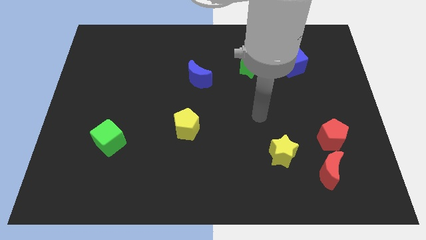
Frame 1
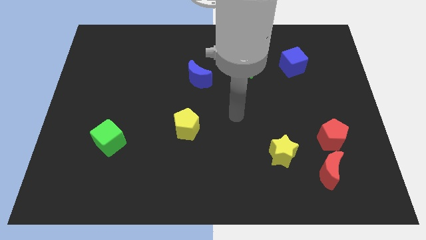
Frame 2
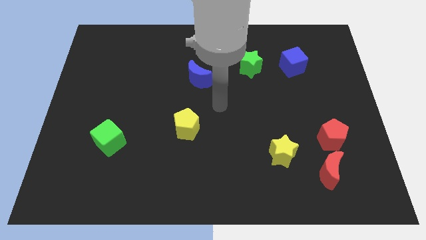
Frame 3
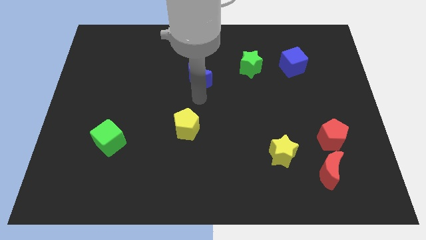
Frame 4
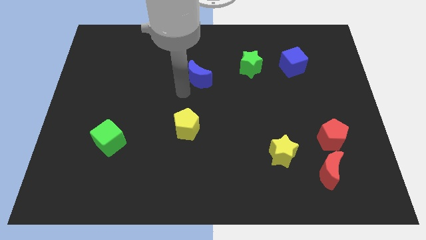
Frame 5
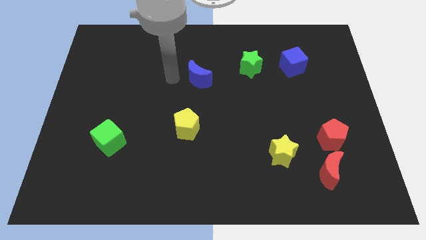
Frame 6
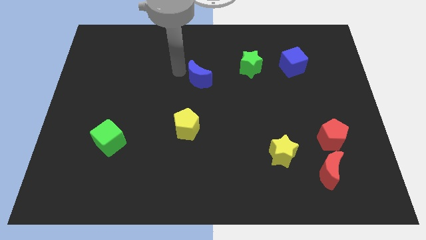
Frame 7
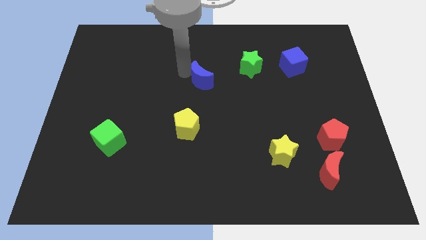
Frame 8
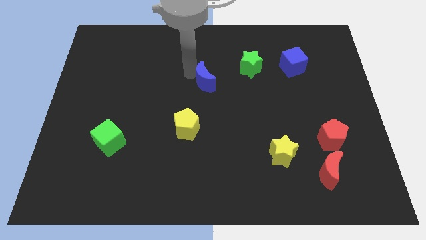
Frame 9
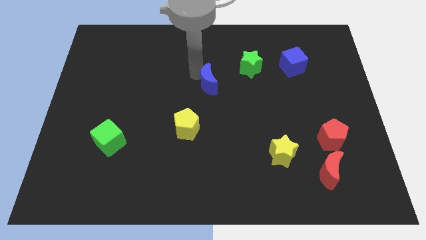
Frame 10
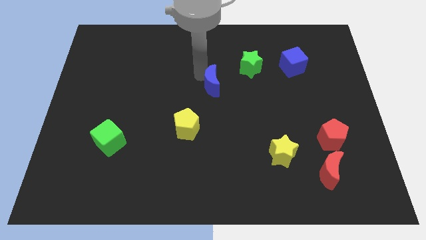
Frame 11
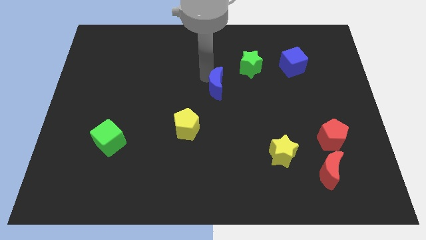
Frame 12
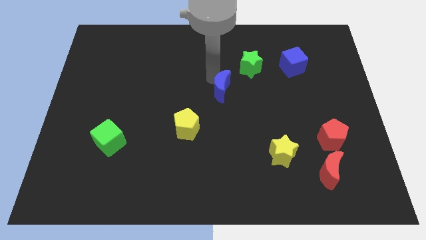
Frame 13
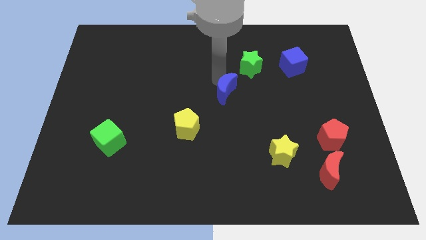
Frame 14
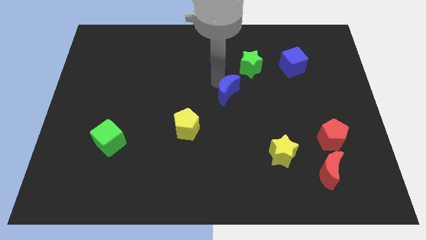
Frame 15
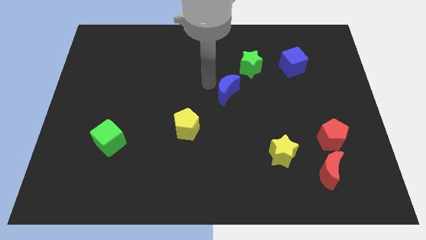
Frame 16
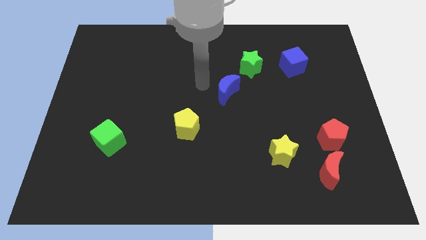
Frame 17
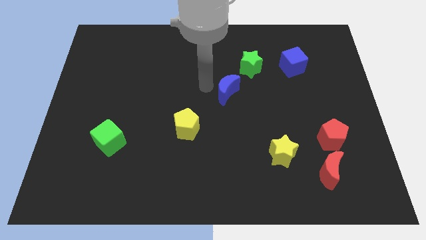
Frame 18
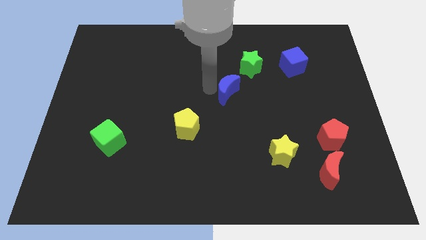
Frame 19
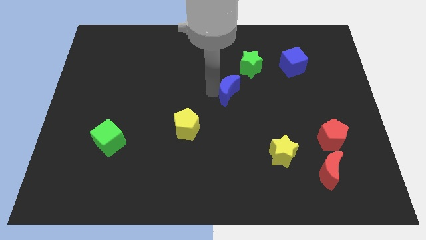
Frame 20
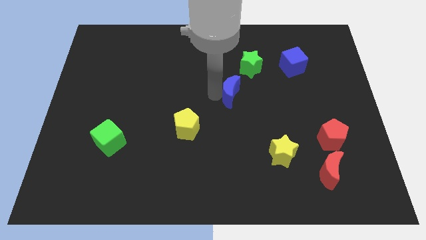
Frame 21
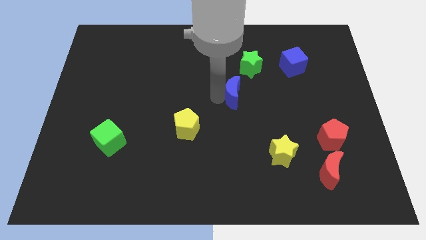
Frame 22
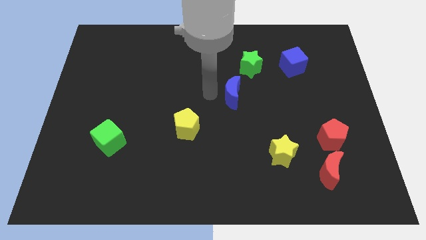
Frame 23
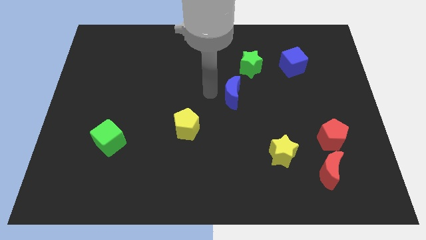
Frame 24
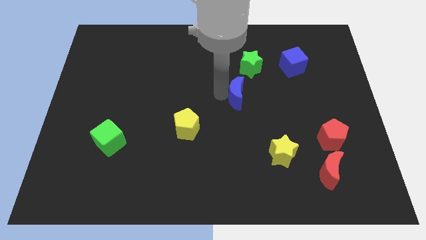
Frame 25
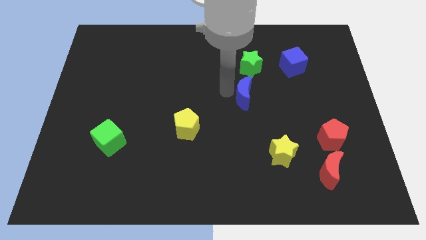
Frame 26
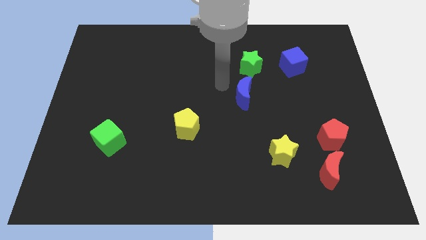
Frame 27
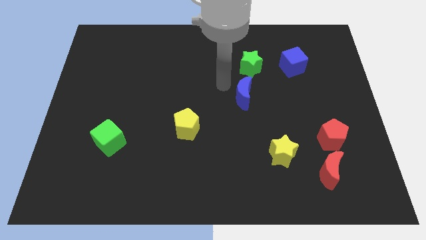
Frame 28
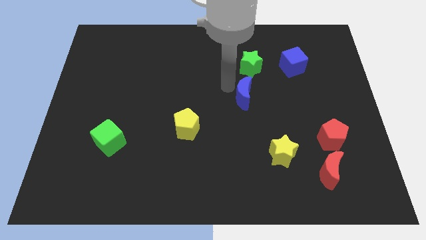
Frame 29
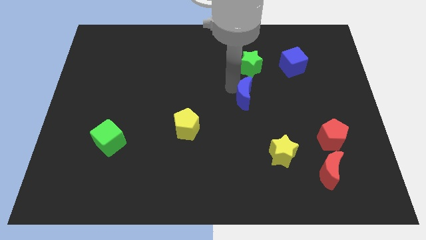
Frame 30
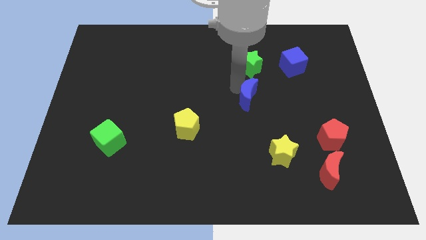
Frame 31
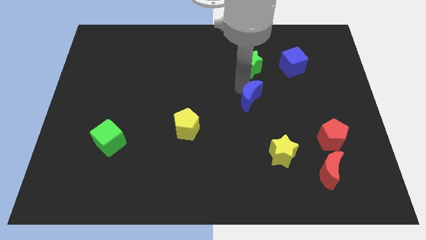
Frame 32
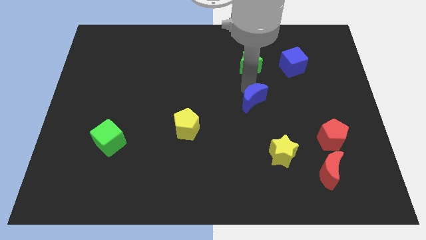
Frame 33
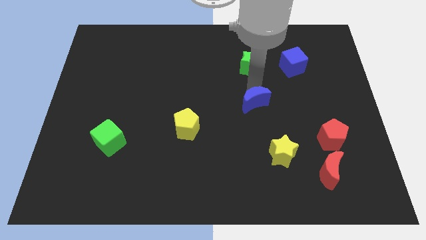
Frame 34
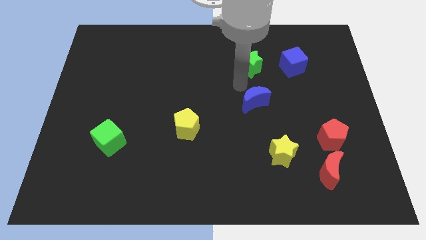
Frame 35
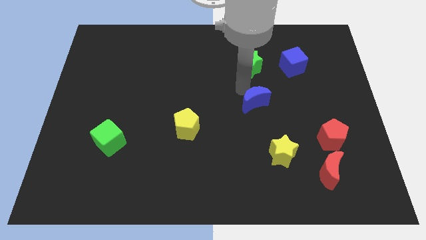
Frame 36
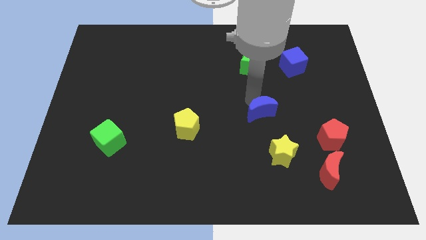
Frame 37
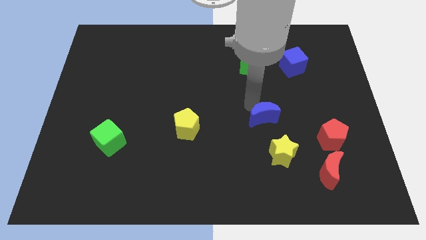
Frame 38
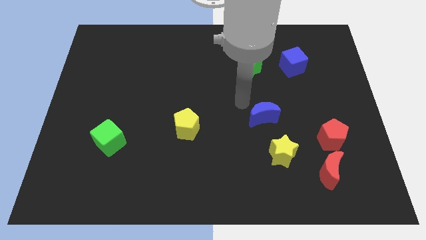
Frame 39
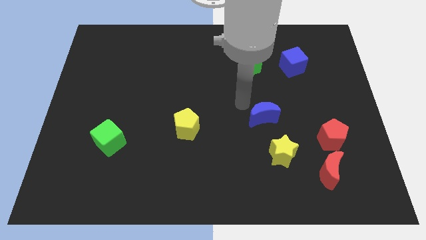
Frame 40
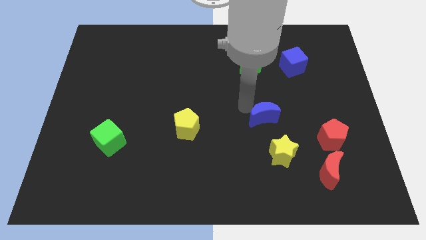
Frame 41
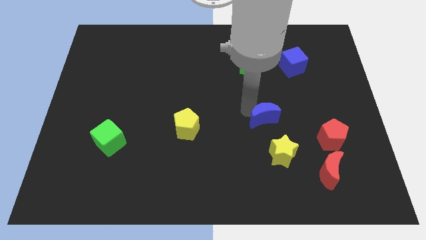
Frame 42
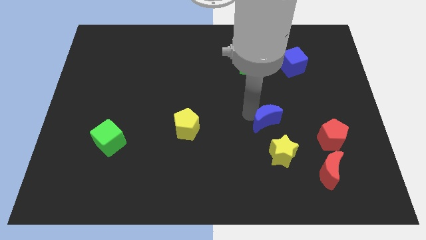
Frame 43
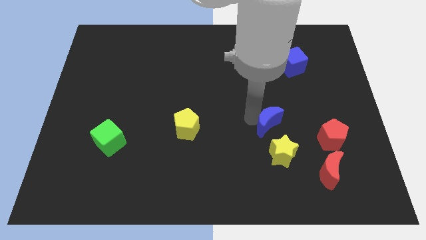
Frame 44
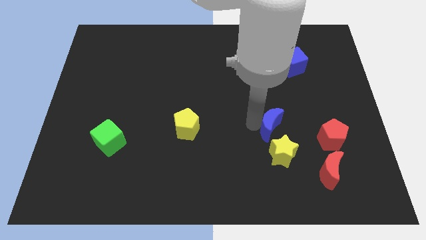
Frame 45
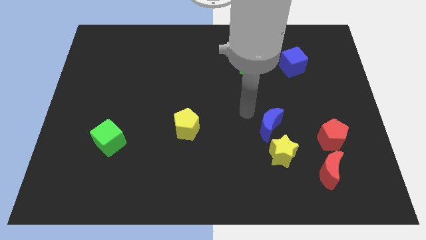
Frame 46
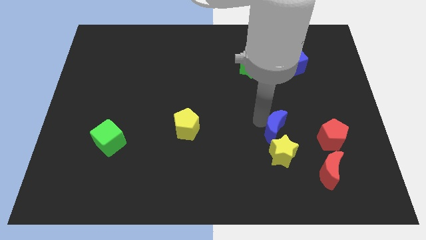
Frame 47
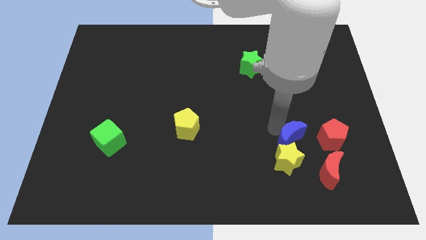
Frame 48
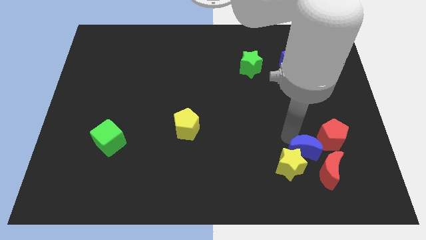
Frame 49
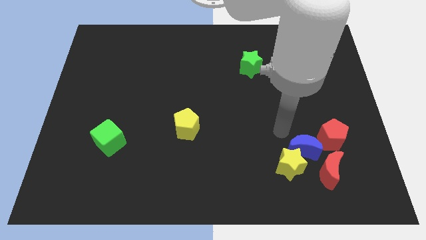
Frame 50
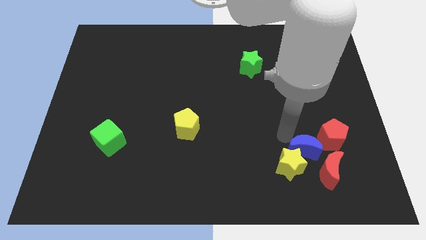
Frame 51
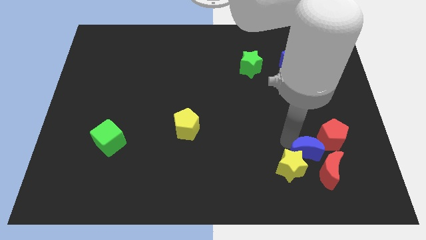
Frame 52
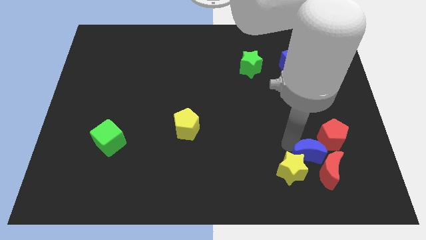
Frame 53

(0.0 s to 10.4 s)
move the blue moon next to the red moon

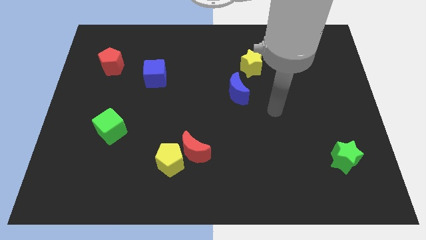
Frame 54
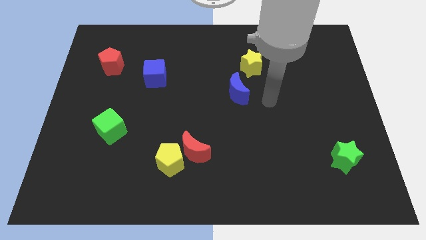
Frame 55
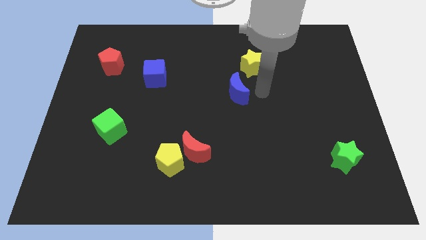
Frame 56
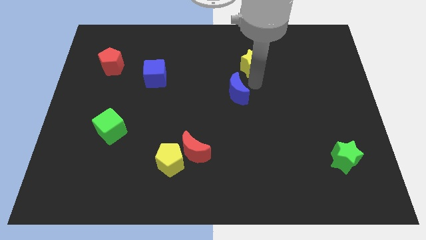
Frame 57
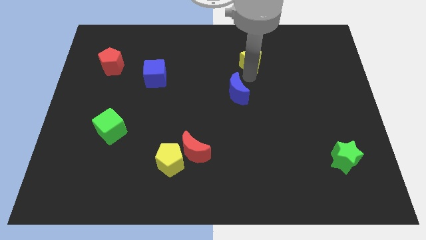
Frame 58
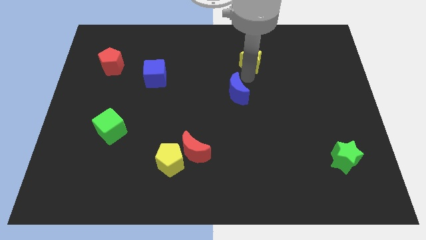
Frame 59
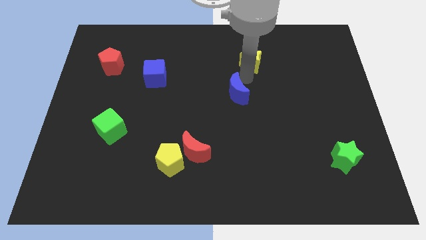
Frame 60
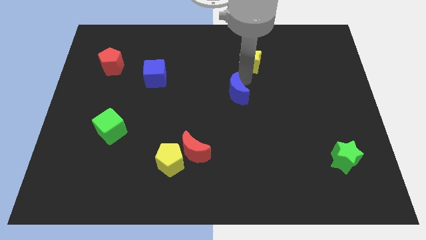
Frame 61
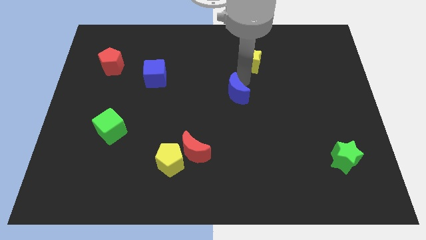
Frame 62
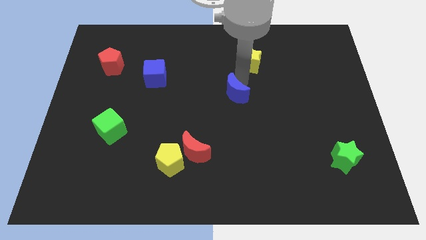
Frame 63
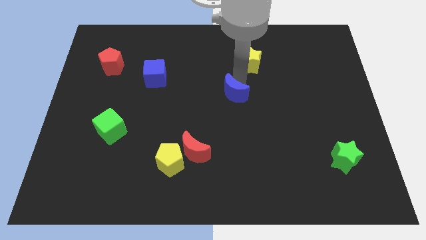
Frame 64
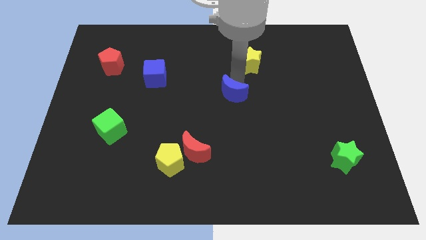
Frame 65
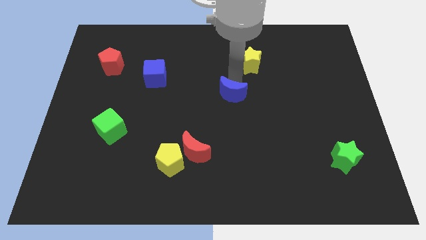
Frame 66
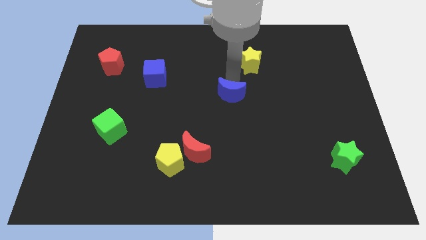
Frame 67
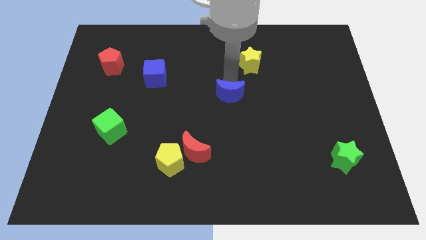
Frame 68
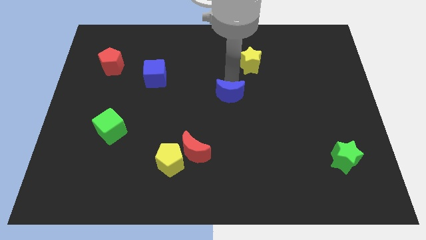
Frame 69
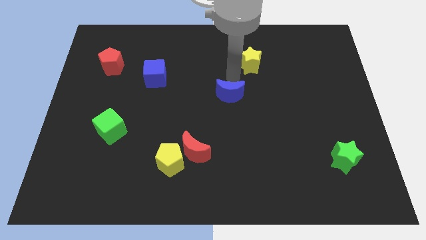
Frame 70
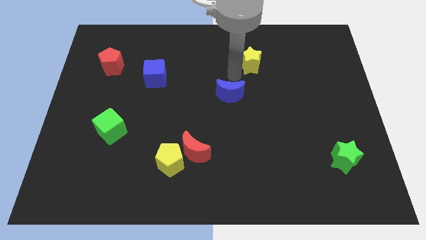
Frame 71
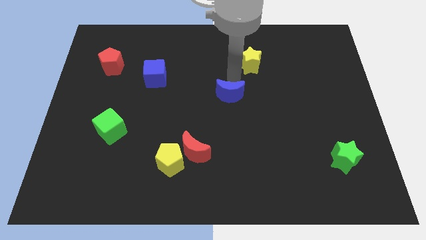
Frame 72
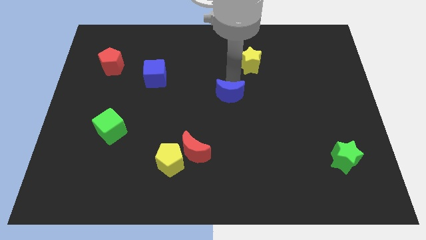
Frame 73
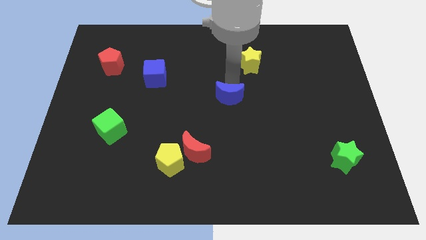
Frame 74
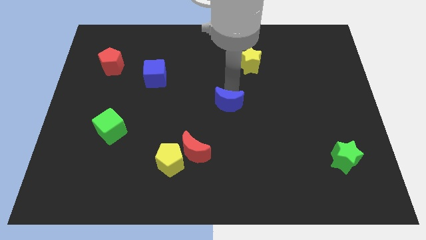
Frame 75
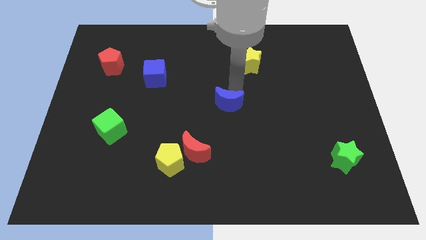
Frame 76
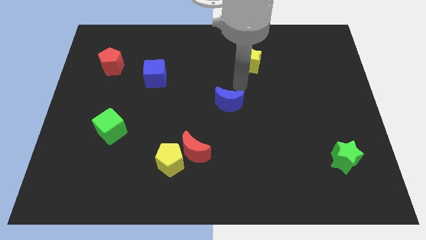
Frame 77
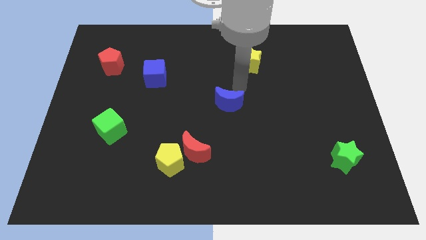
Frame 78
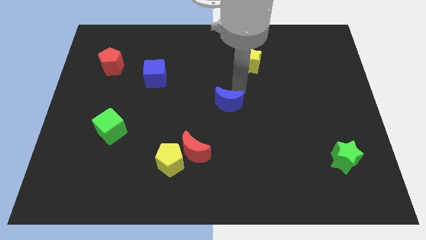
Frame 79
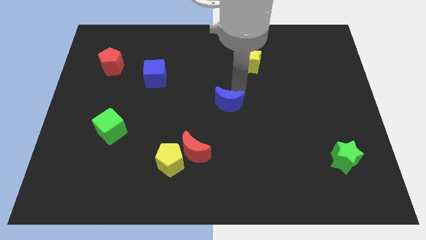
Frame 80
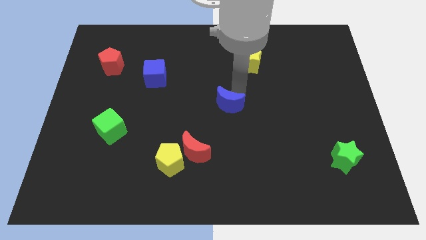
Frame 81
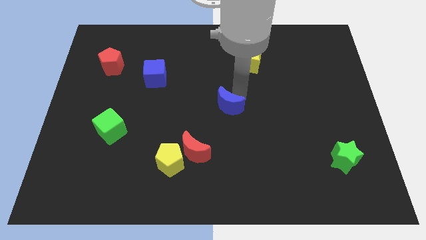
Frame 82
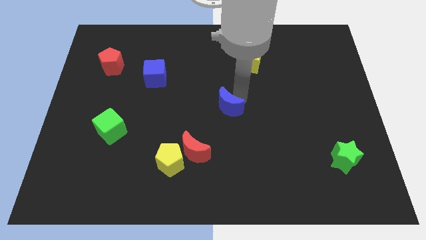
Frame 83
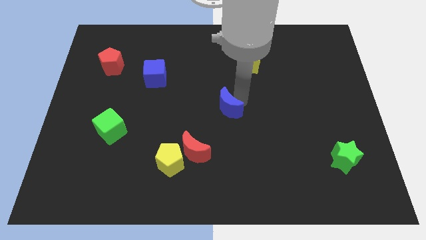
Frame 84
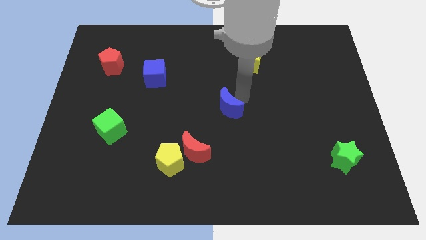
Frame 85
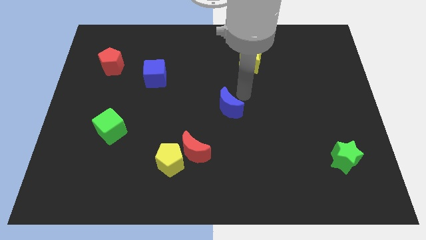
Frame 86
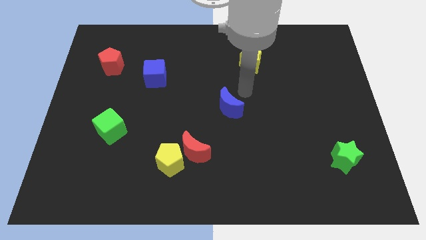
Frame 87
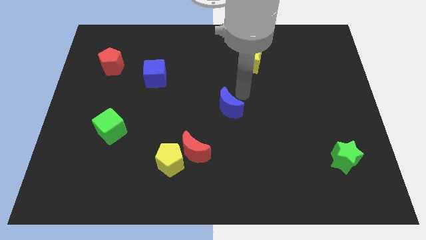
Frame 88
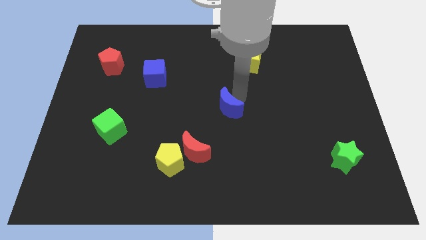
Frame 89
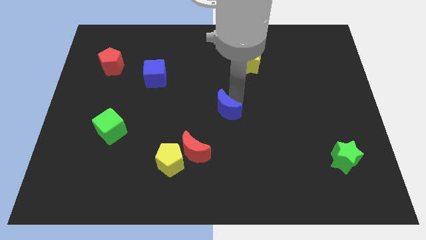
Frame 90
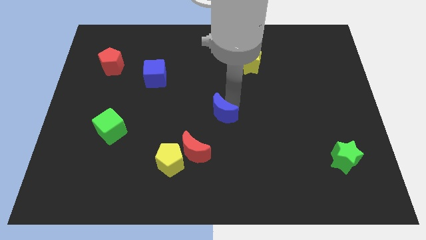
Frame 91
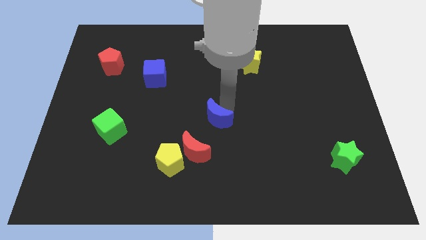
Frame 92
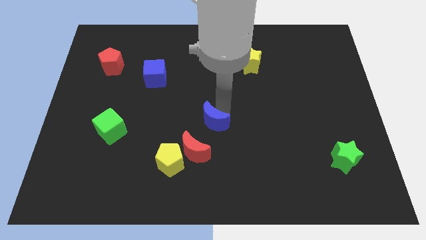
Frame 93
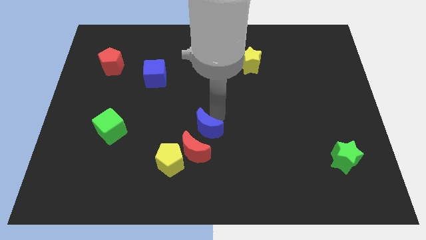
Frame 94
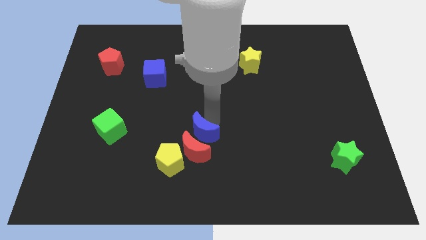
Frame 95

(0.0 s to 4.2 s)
push the blue moon towards the red moon
